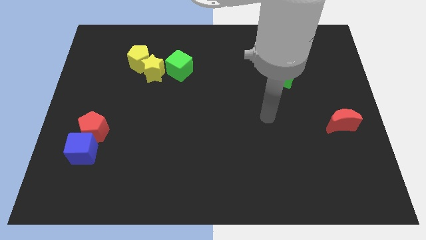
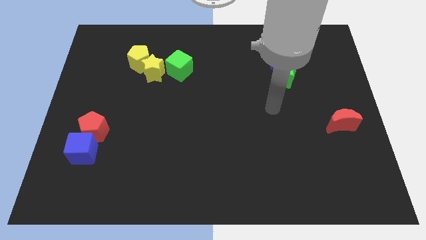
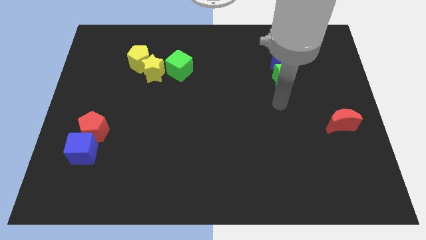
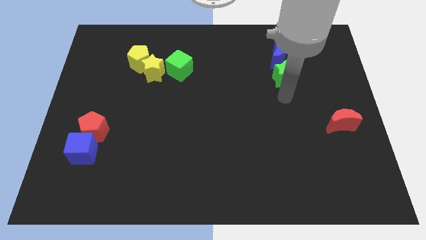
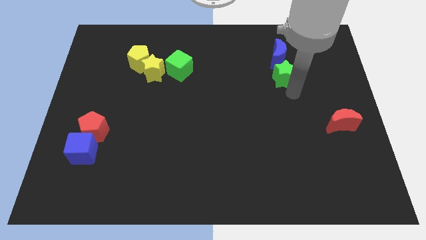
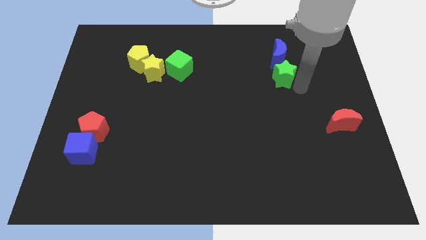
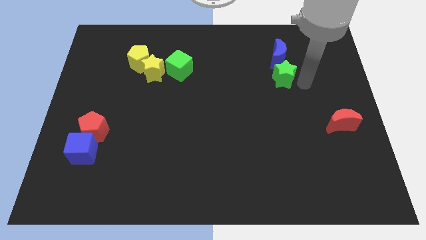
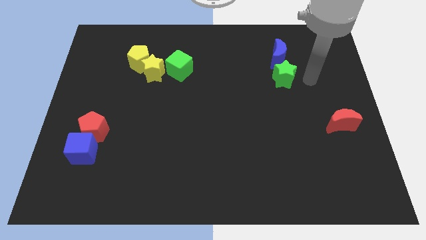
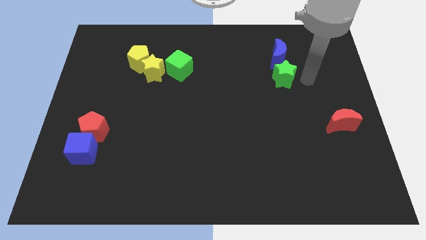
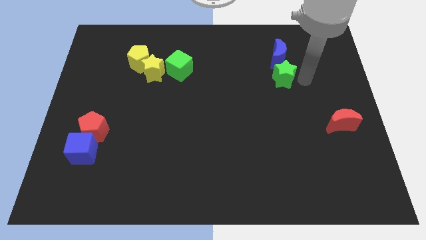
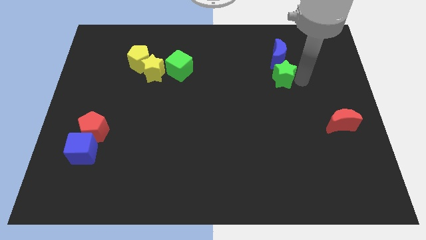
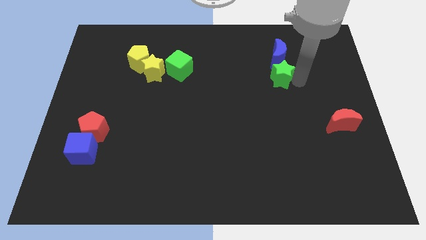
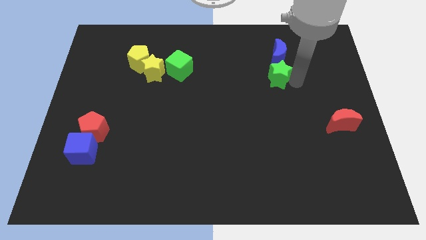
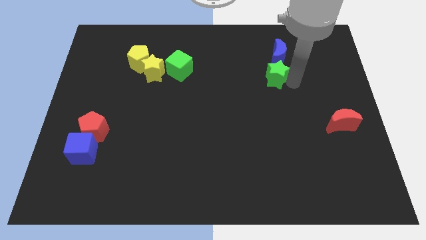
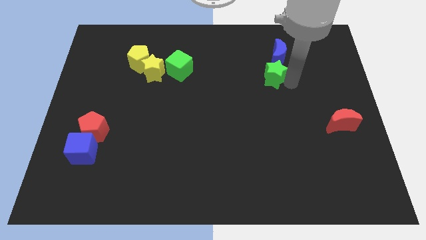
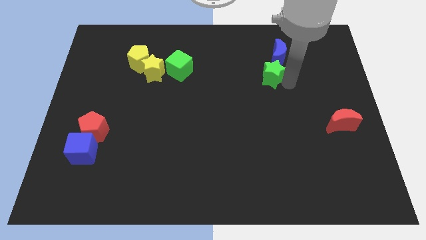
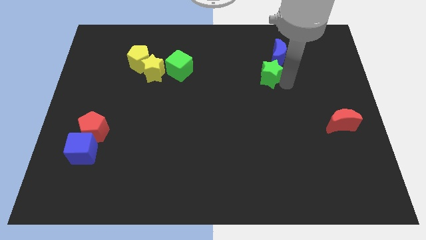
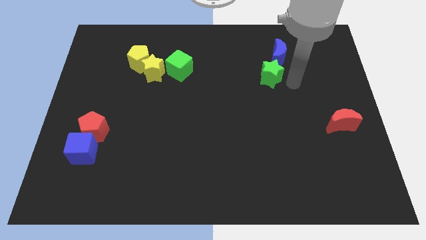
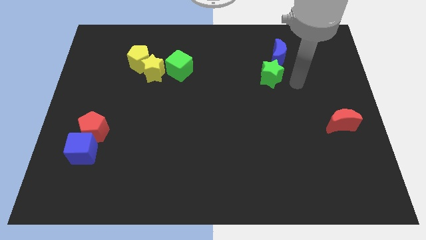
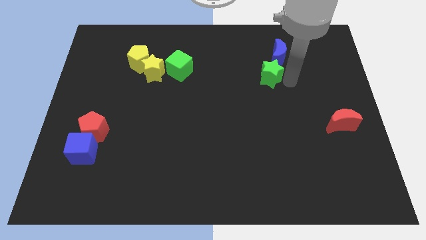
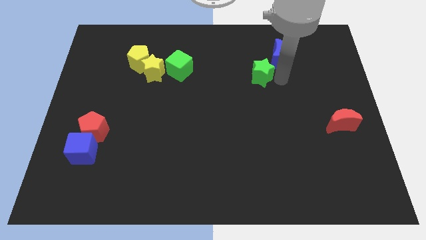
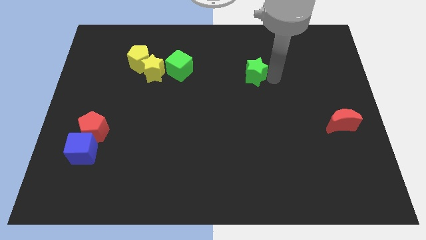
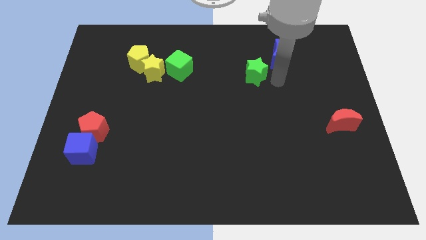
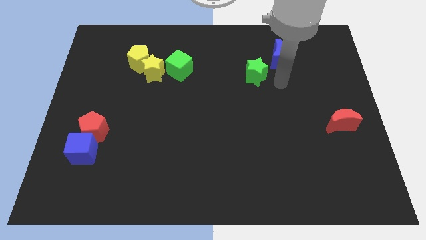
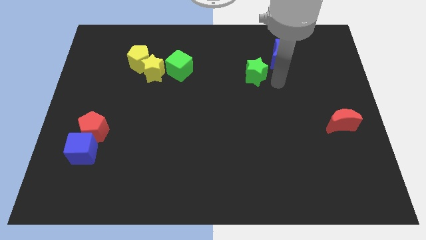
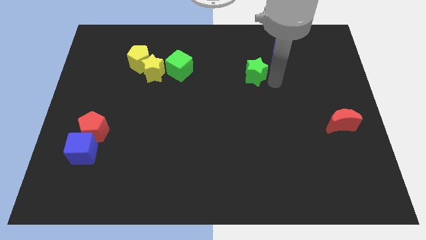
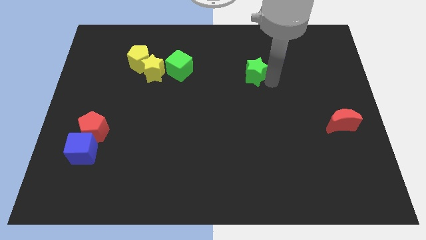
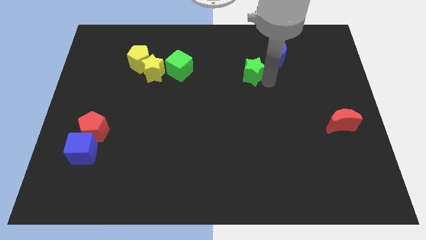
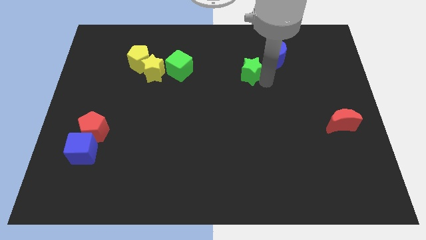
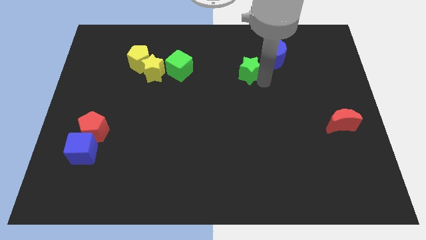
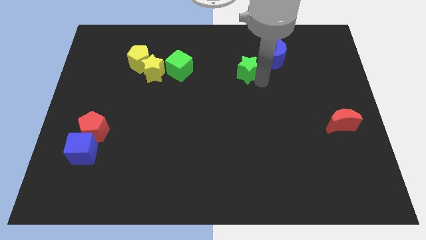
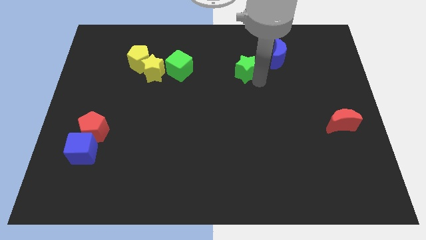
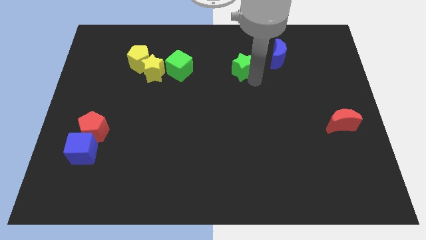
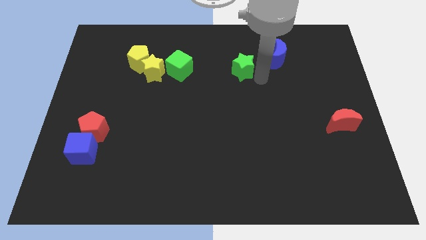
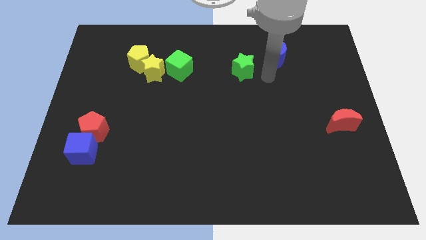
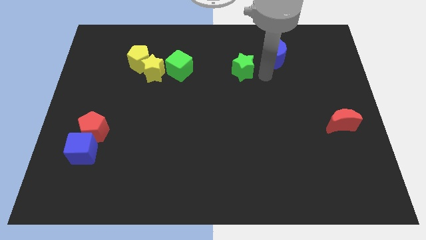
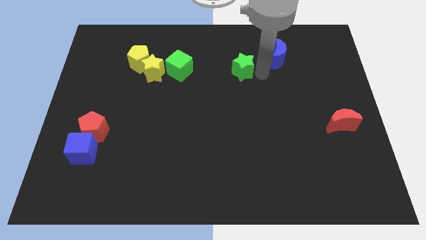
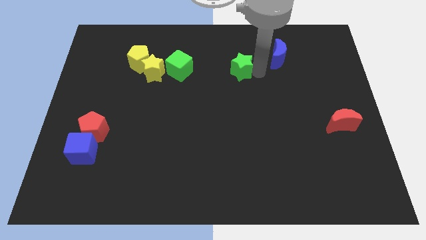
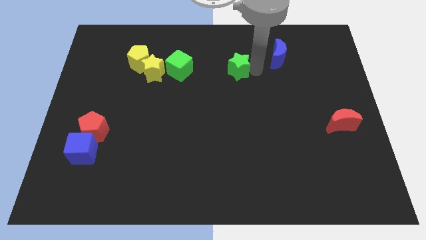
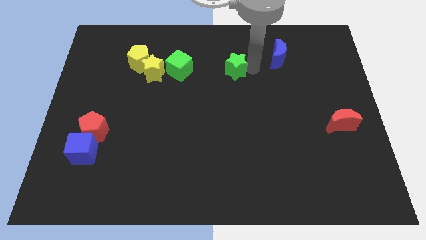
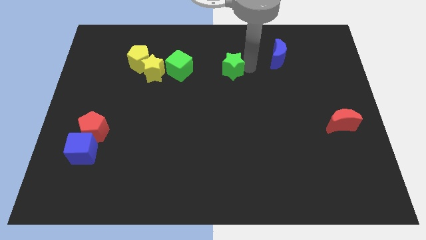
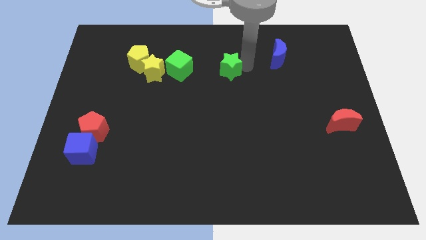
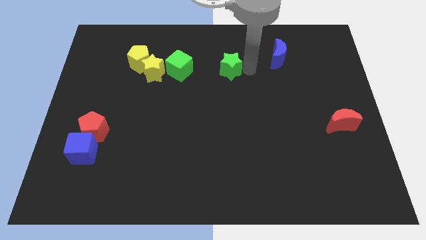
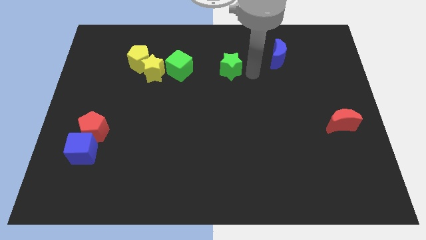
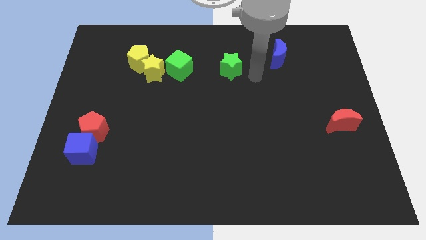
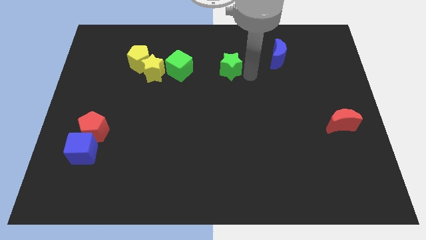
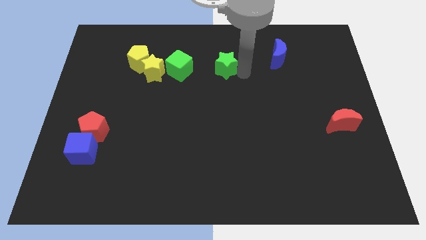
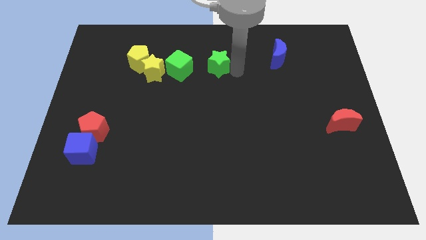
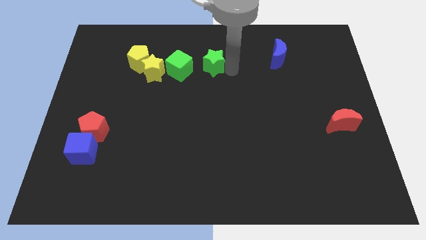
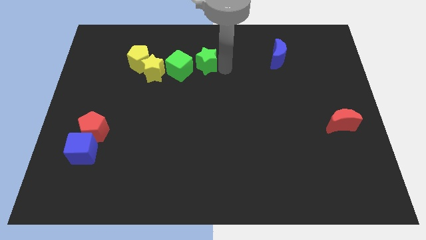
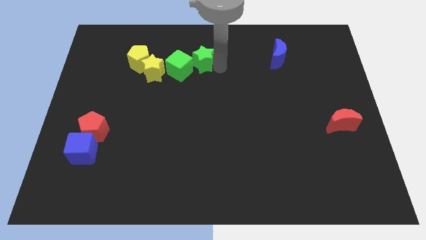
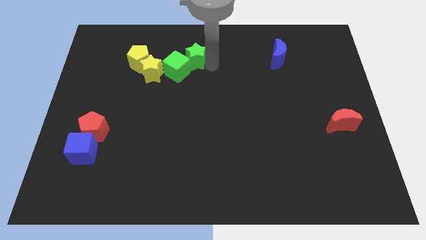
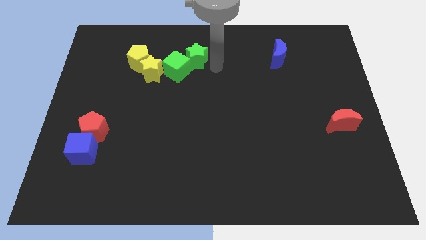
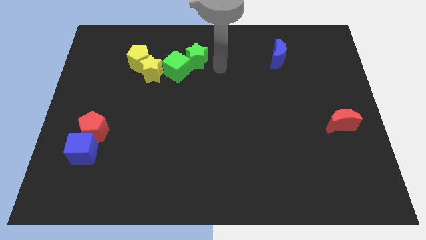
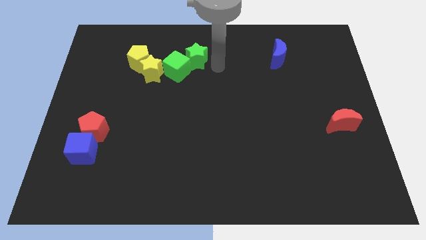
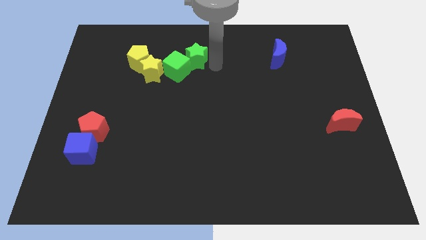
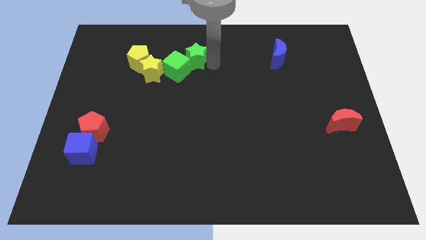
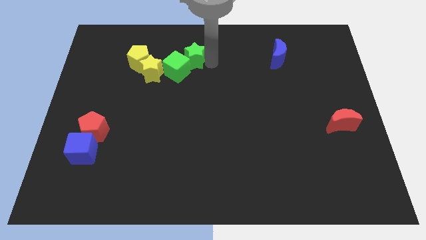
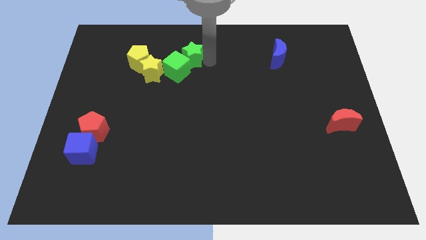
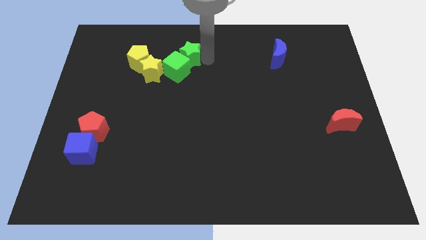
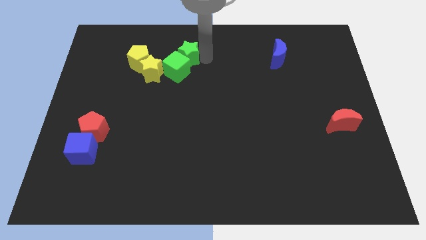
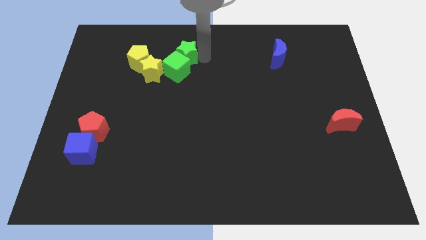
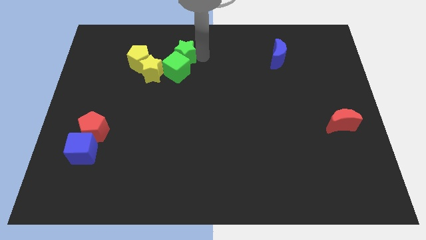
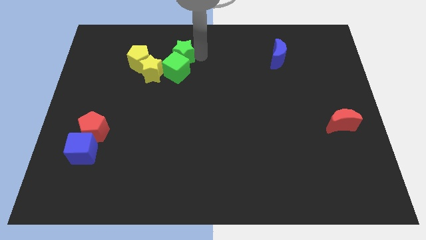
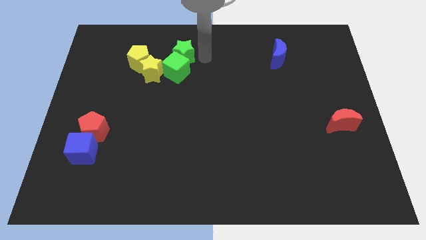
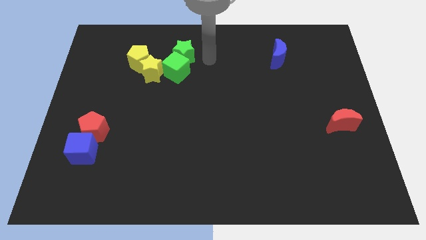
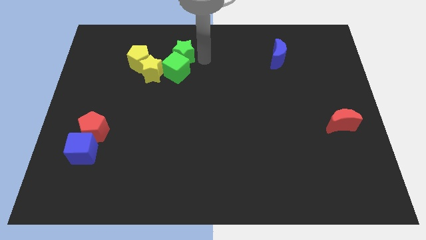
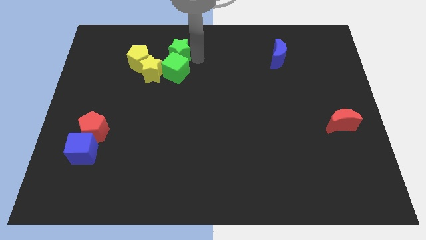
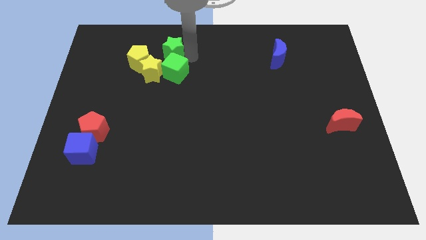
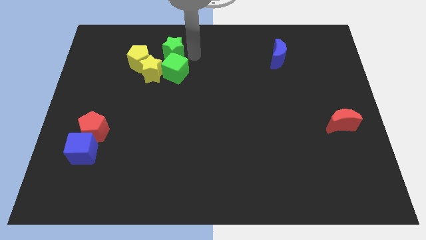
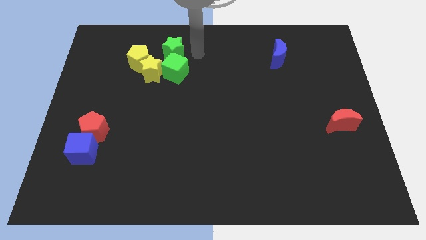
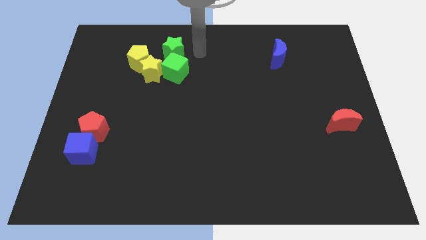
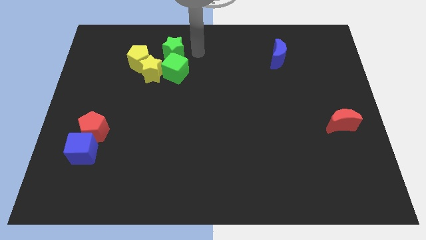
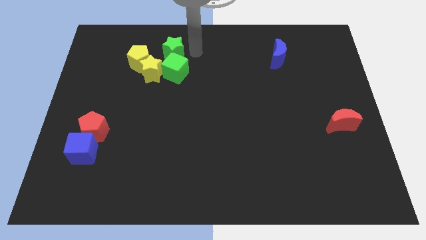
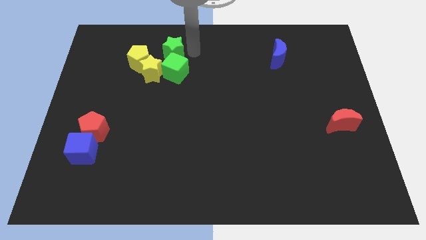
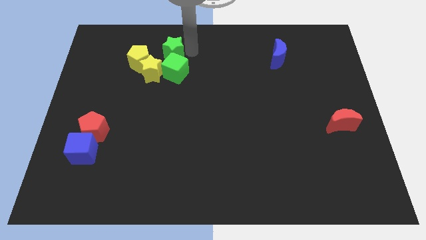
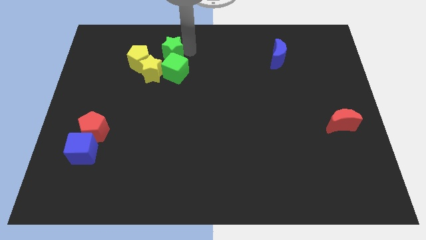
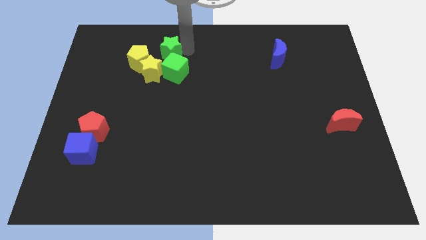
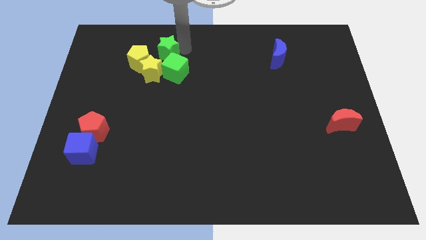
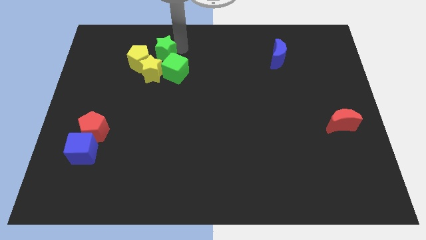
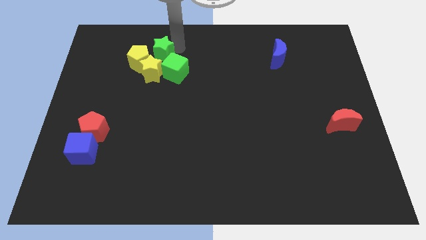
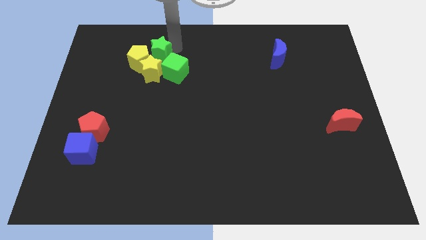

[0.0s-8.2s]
slide the green star towards the yellow pentagon
